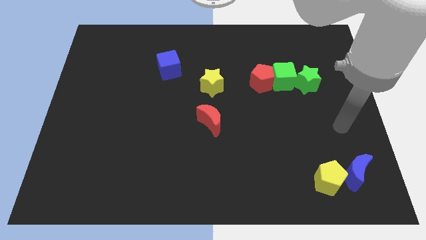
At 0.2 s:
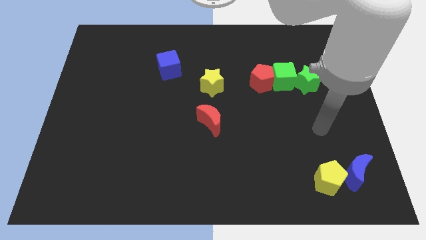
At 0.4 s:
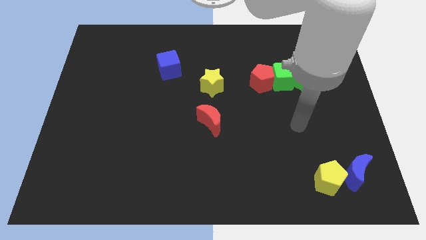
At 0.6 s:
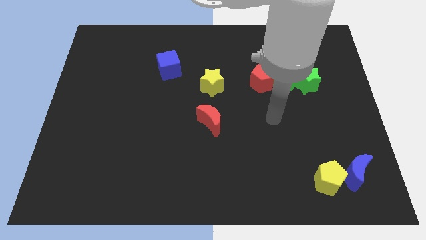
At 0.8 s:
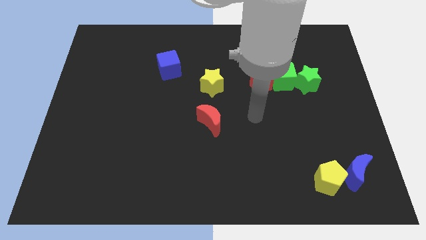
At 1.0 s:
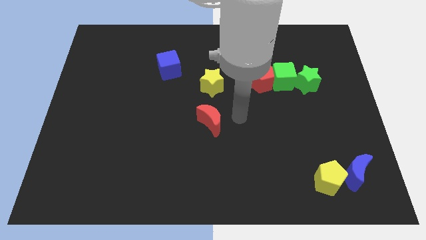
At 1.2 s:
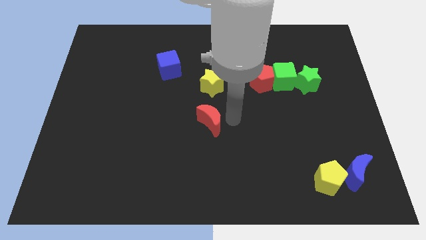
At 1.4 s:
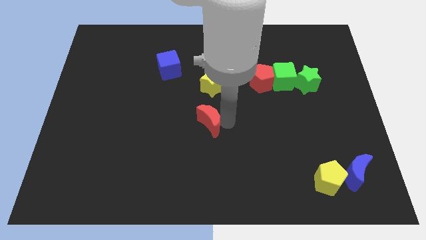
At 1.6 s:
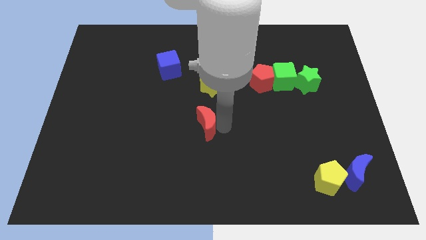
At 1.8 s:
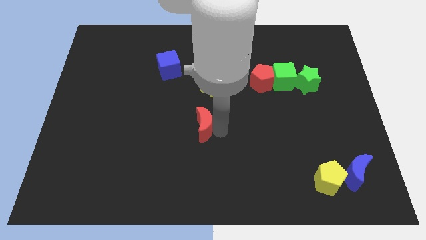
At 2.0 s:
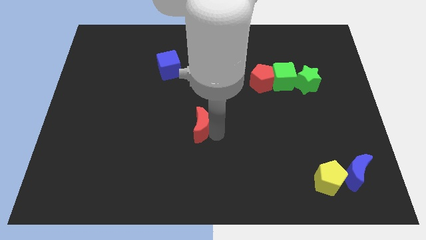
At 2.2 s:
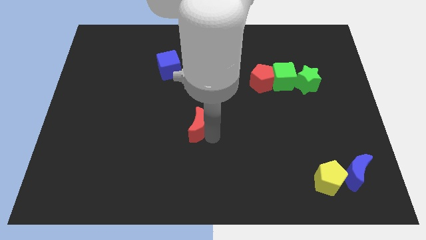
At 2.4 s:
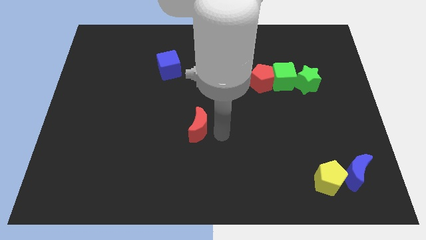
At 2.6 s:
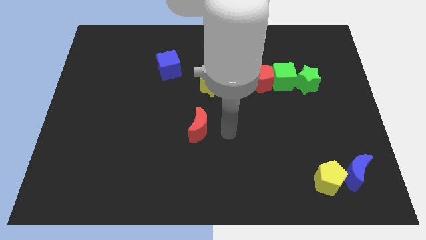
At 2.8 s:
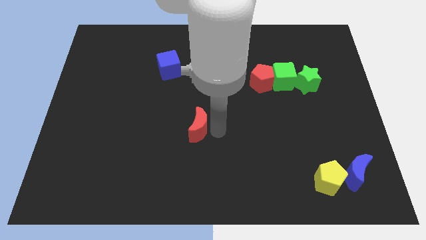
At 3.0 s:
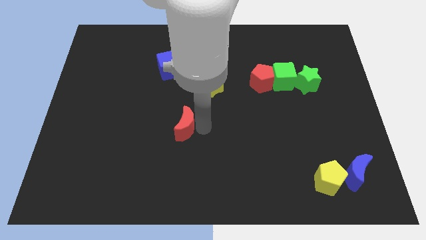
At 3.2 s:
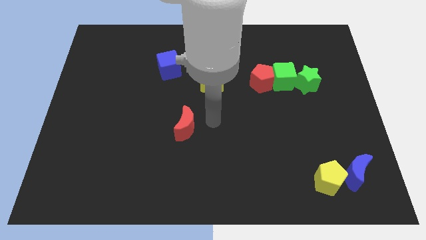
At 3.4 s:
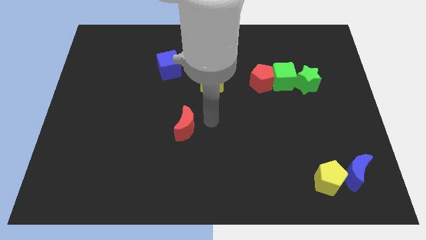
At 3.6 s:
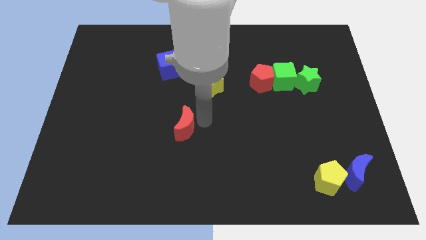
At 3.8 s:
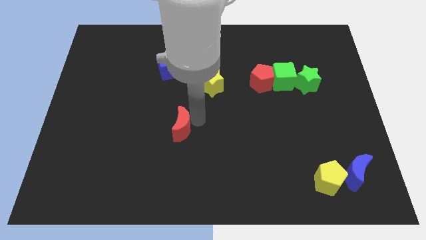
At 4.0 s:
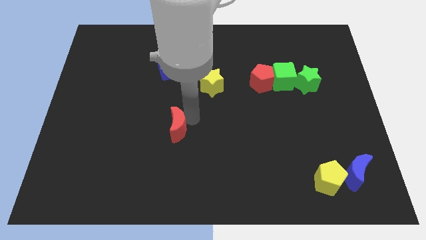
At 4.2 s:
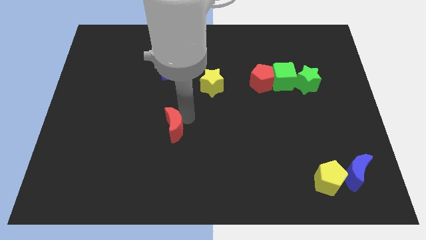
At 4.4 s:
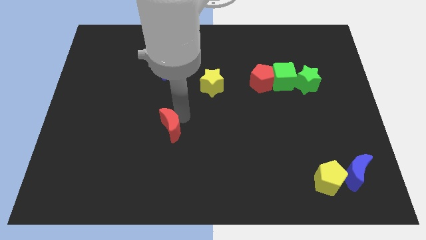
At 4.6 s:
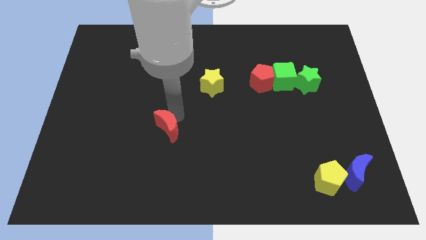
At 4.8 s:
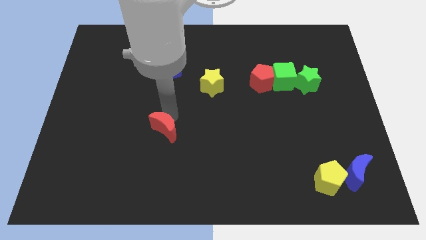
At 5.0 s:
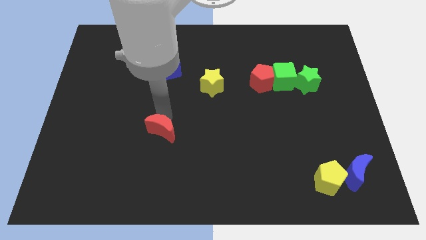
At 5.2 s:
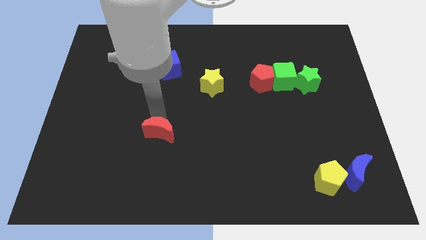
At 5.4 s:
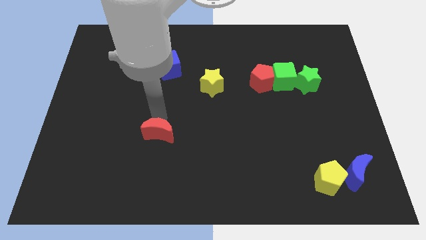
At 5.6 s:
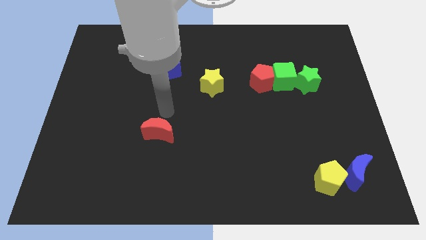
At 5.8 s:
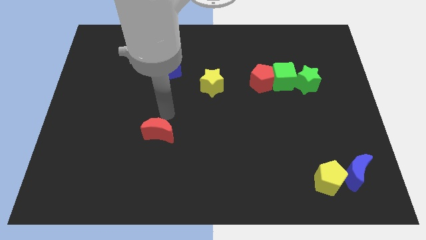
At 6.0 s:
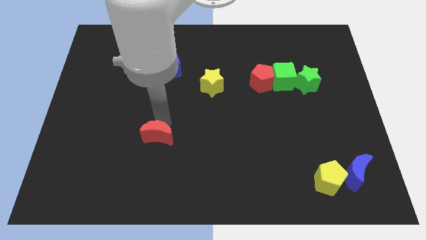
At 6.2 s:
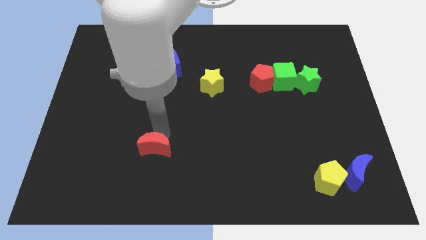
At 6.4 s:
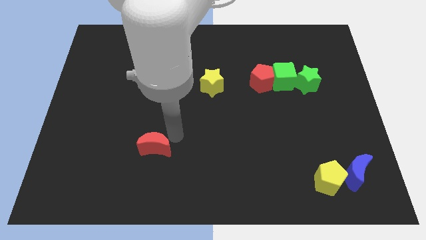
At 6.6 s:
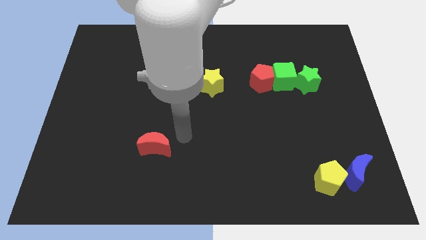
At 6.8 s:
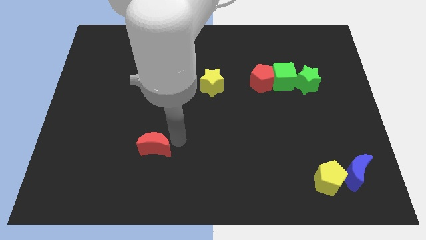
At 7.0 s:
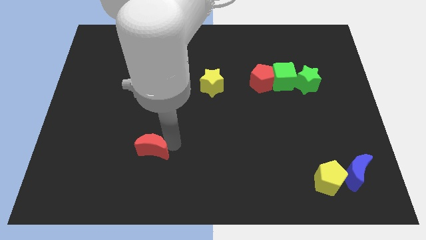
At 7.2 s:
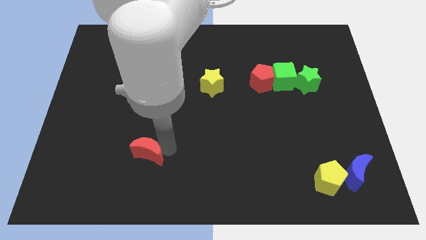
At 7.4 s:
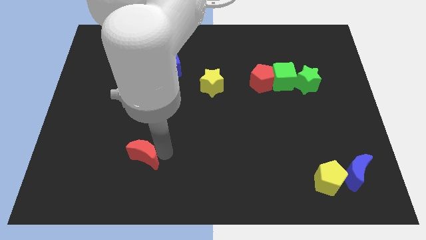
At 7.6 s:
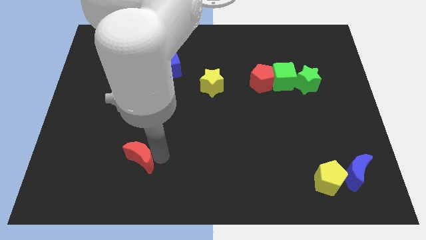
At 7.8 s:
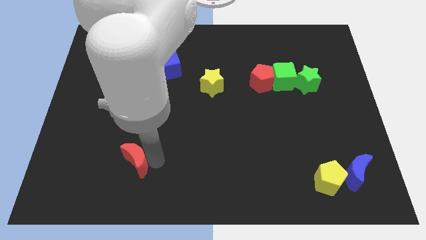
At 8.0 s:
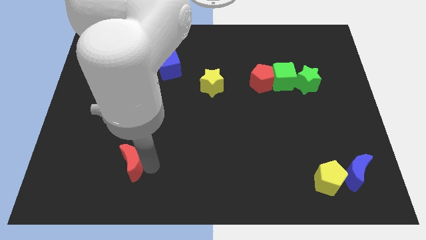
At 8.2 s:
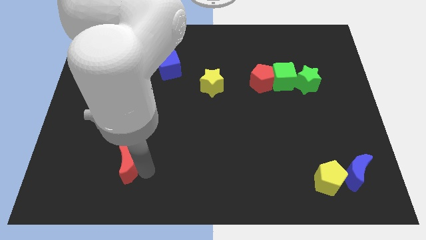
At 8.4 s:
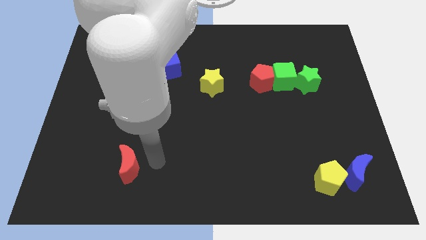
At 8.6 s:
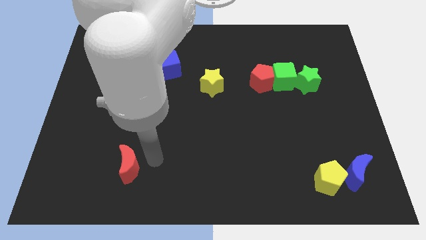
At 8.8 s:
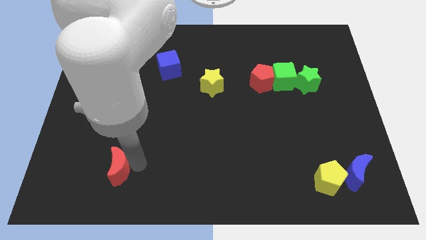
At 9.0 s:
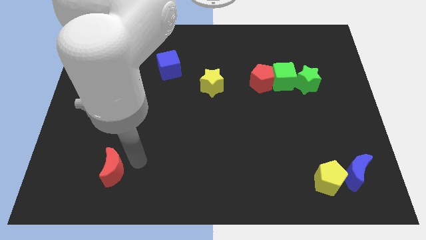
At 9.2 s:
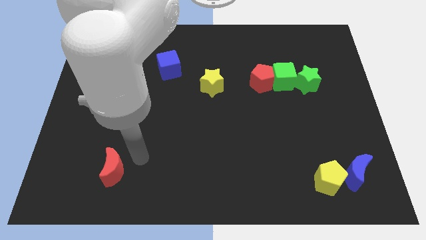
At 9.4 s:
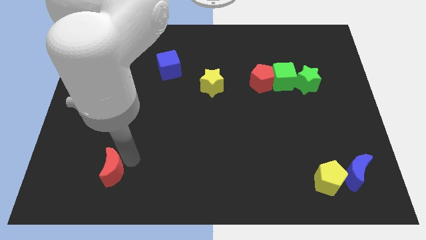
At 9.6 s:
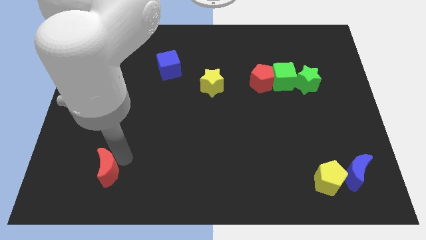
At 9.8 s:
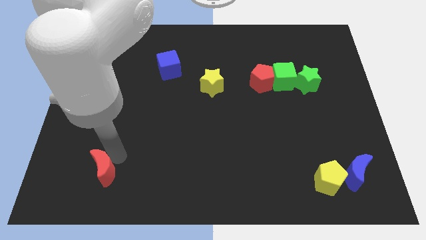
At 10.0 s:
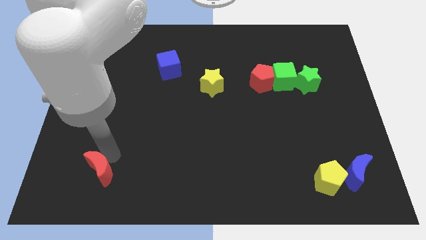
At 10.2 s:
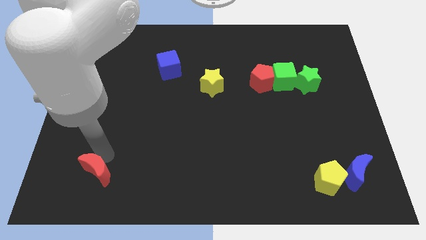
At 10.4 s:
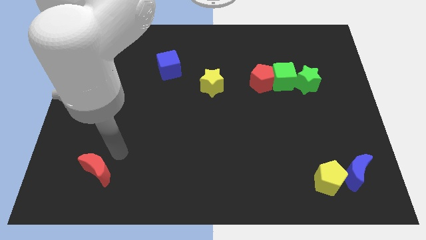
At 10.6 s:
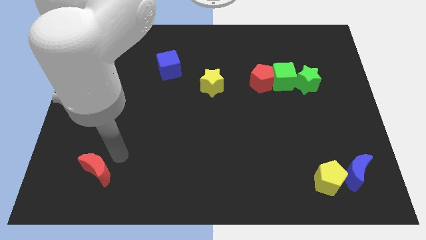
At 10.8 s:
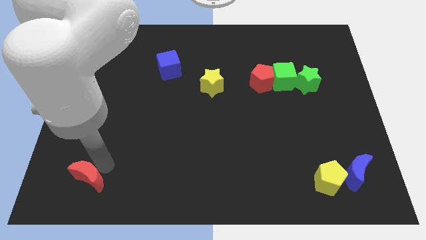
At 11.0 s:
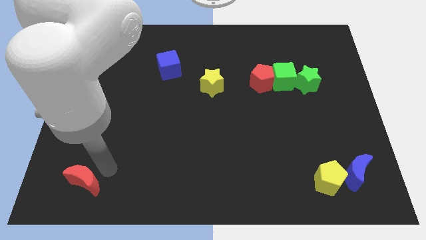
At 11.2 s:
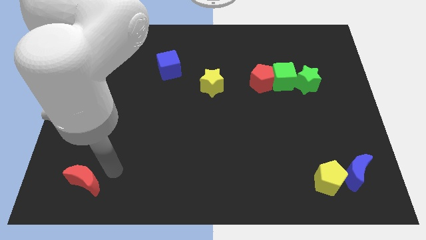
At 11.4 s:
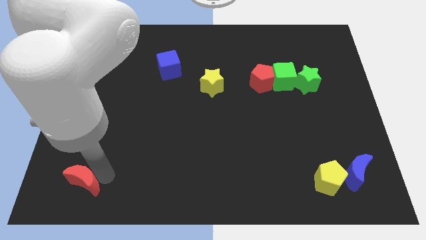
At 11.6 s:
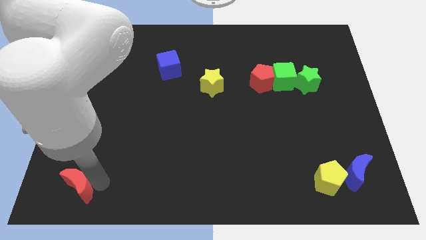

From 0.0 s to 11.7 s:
move the red moon to the lower left corner
